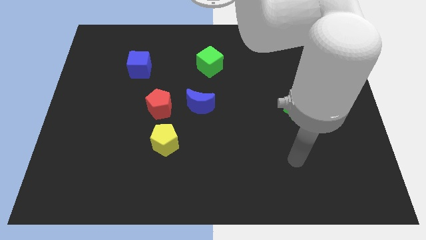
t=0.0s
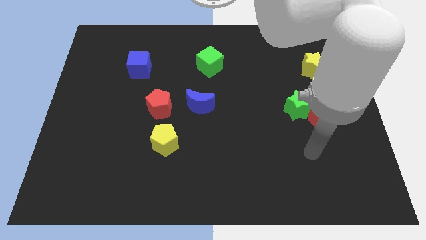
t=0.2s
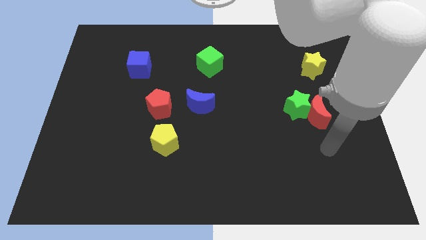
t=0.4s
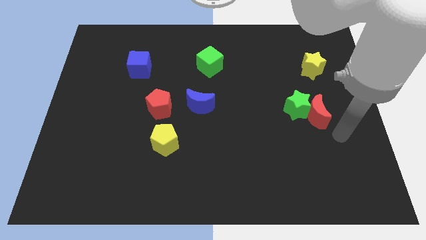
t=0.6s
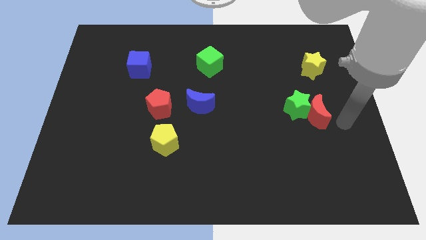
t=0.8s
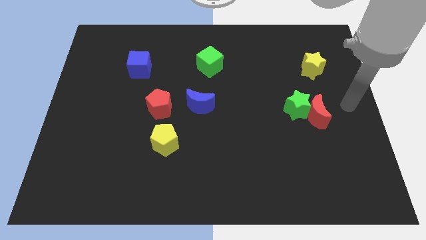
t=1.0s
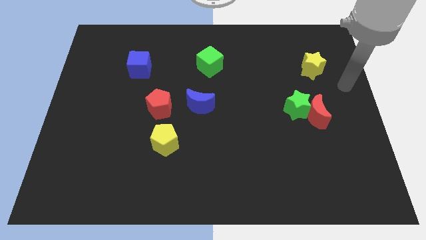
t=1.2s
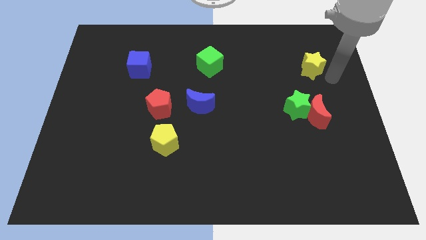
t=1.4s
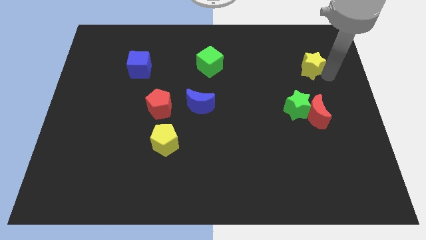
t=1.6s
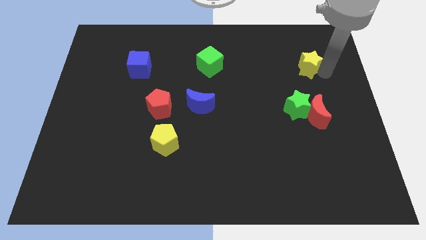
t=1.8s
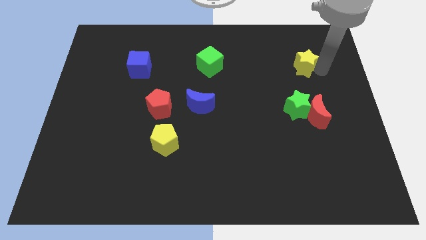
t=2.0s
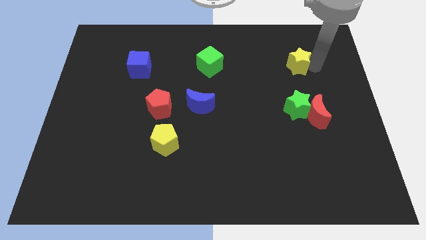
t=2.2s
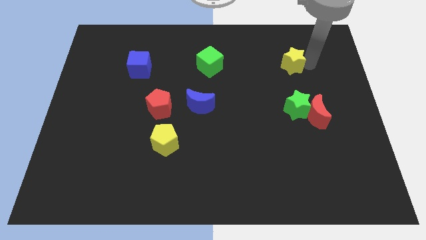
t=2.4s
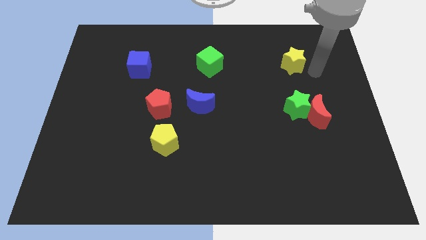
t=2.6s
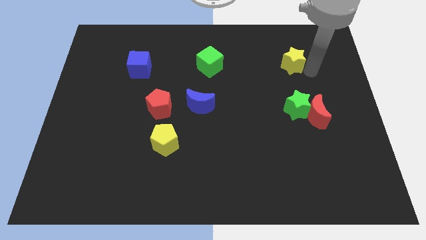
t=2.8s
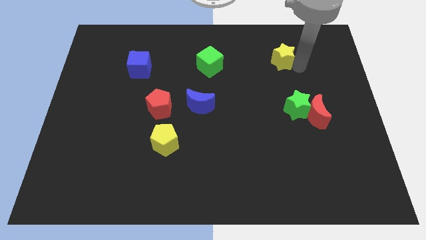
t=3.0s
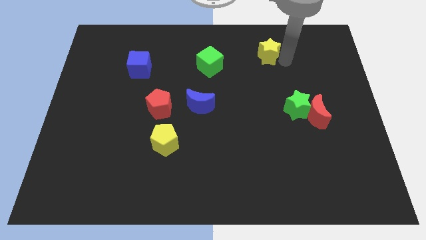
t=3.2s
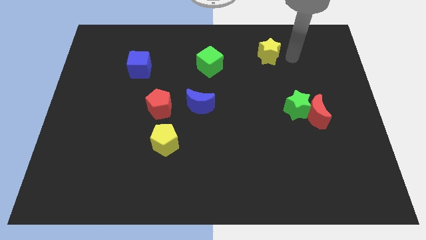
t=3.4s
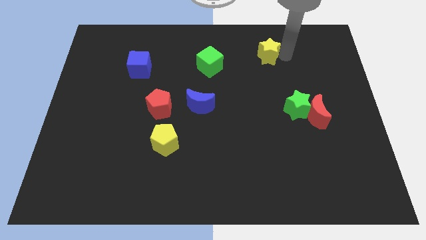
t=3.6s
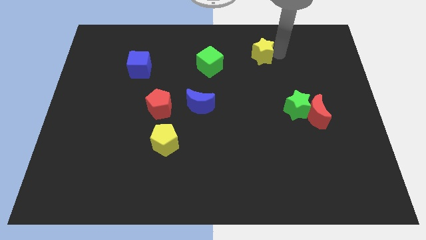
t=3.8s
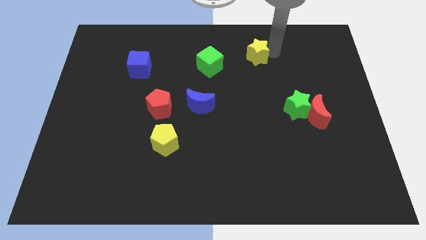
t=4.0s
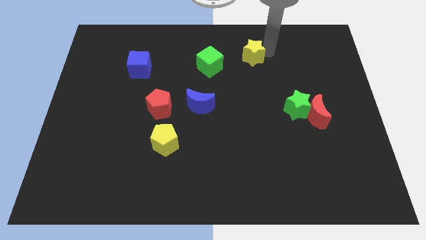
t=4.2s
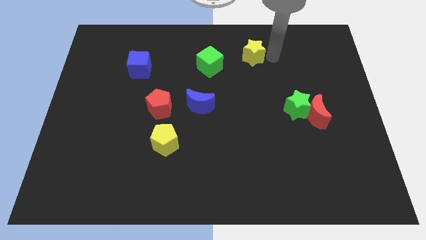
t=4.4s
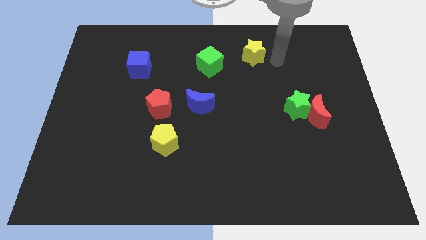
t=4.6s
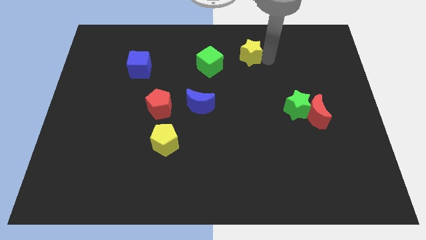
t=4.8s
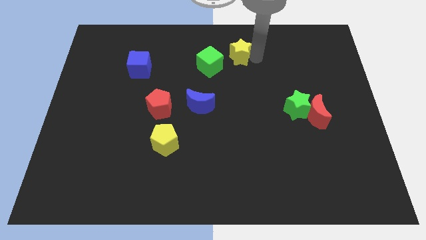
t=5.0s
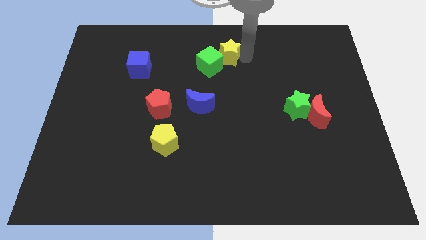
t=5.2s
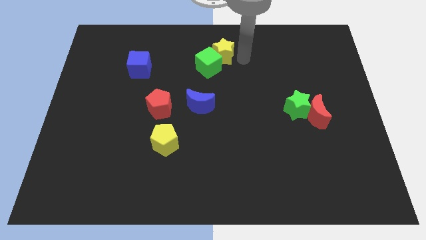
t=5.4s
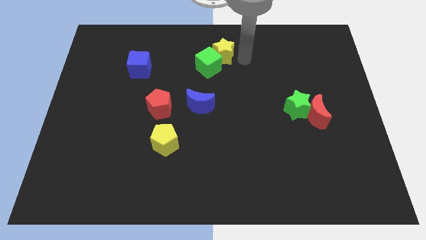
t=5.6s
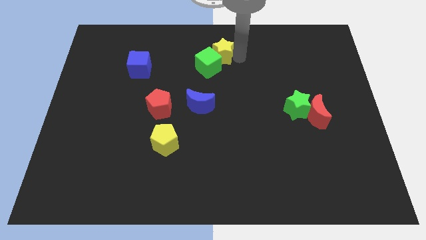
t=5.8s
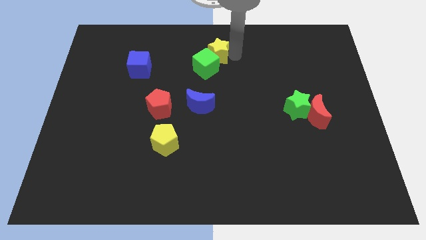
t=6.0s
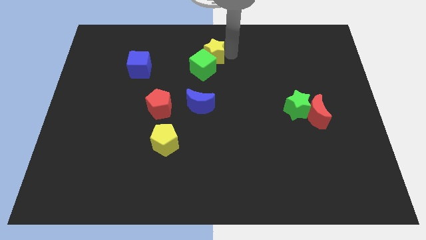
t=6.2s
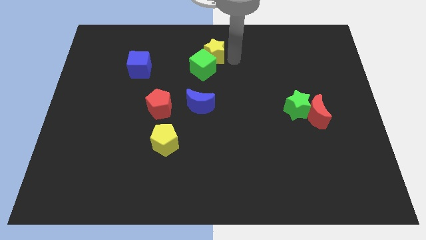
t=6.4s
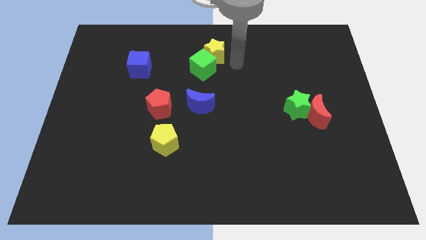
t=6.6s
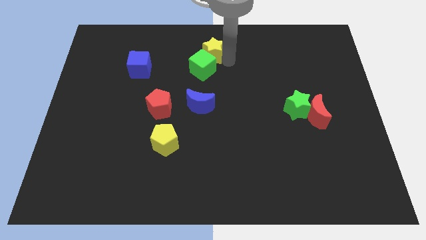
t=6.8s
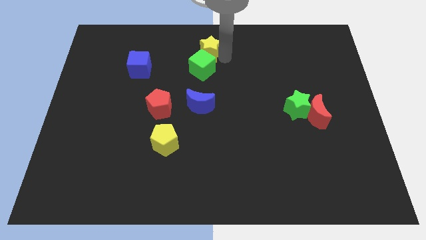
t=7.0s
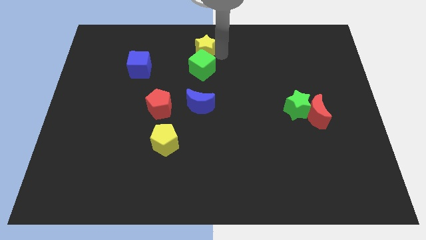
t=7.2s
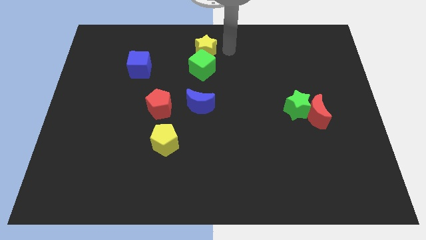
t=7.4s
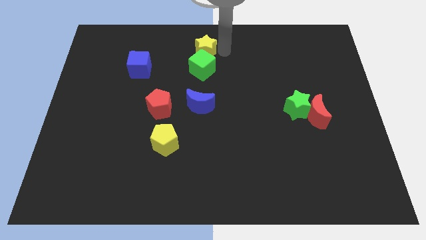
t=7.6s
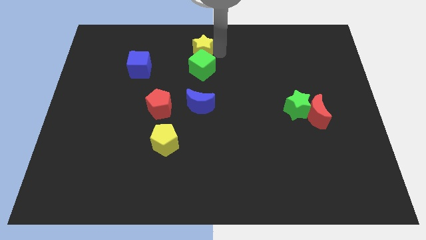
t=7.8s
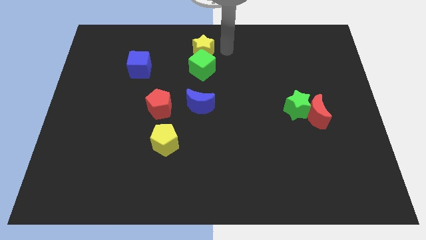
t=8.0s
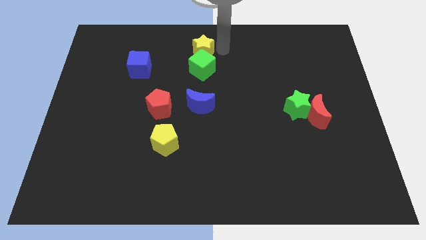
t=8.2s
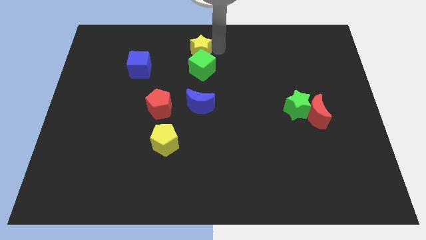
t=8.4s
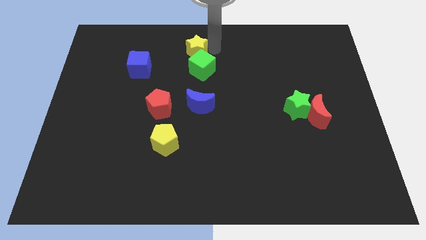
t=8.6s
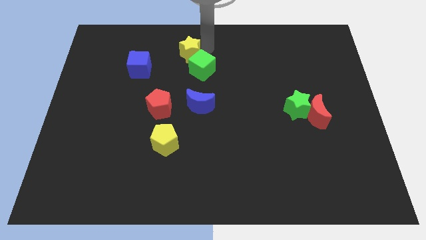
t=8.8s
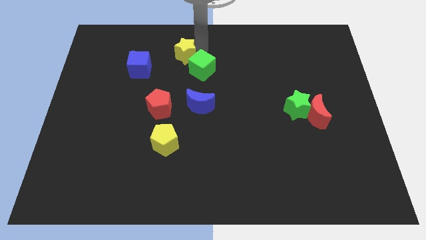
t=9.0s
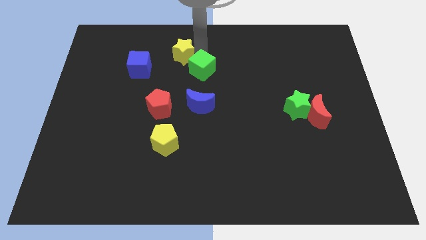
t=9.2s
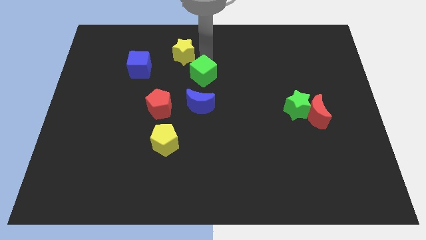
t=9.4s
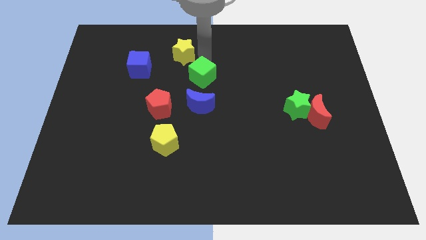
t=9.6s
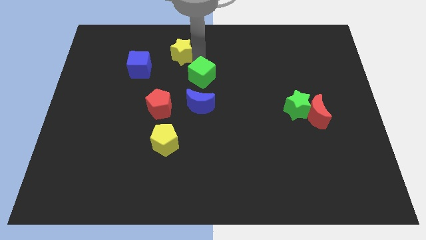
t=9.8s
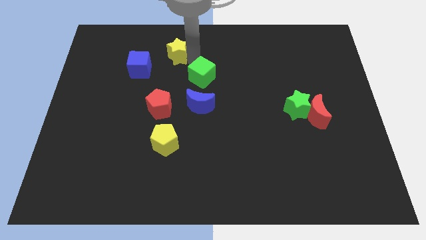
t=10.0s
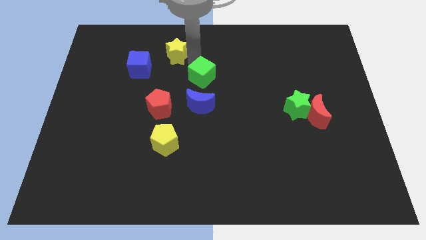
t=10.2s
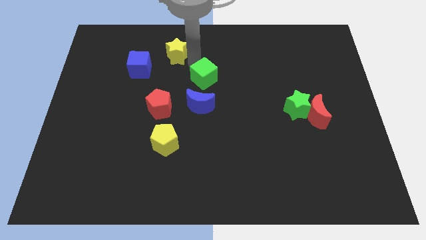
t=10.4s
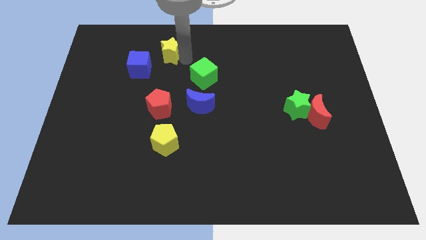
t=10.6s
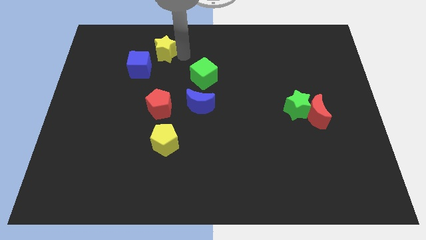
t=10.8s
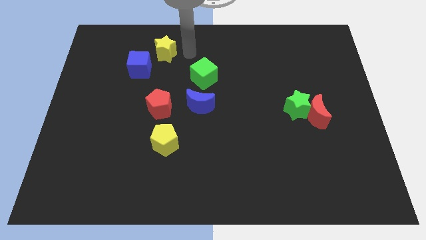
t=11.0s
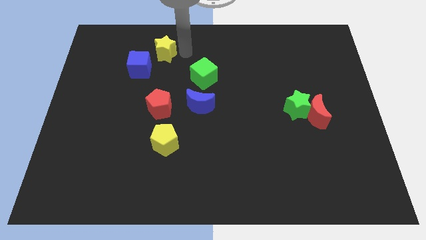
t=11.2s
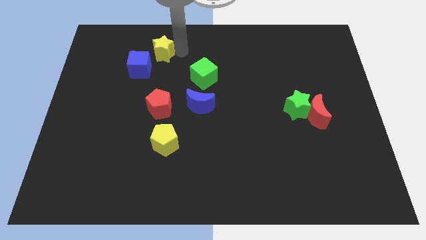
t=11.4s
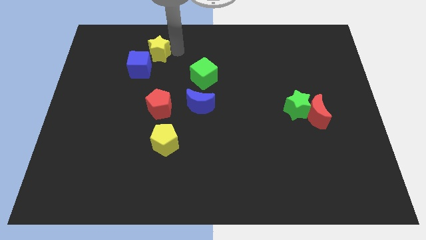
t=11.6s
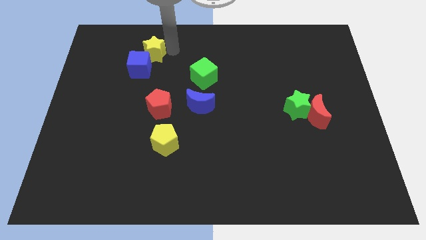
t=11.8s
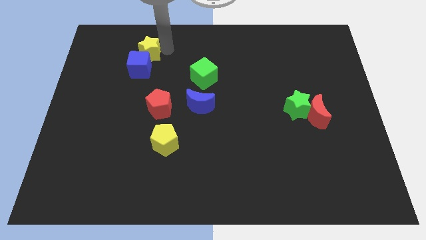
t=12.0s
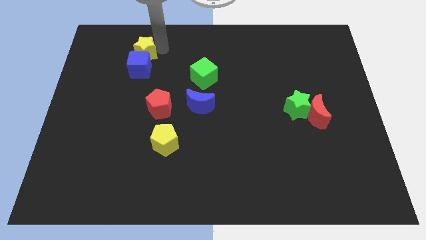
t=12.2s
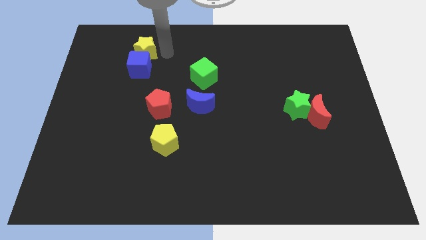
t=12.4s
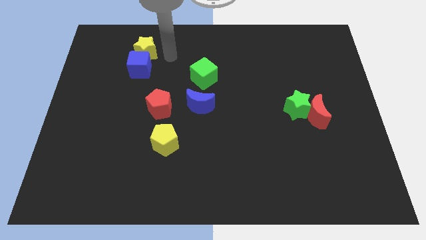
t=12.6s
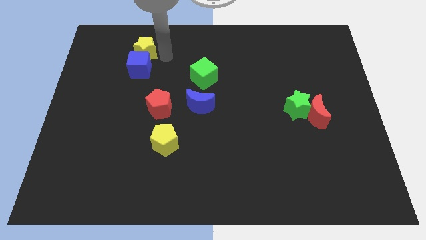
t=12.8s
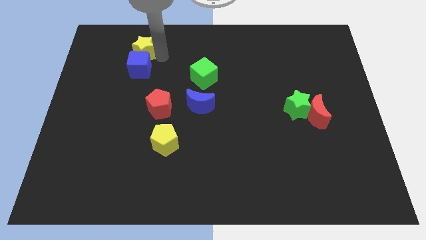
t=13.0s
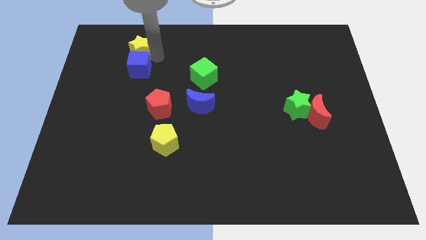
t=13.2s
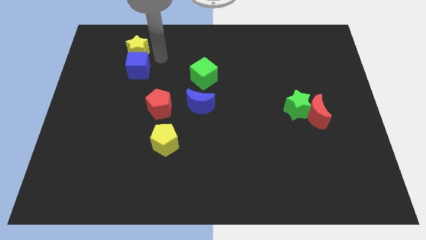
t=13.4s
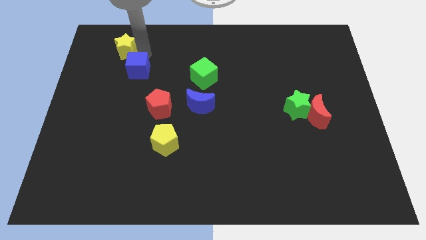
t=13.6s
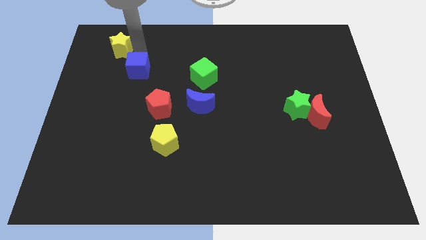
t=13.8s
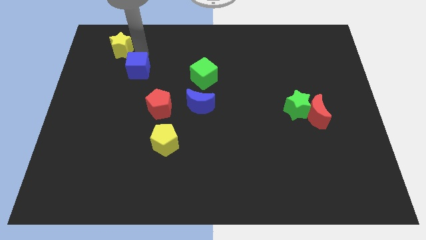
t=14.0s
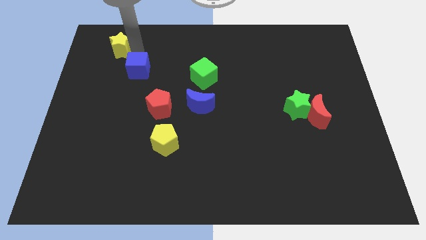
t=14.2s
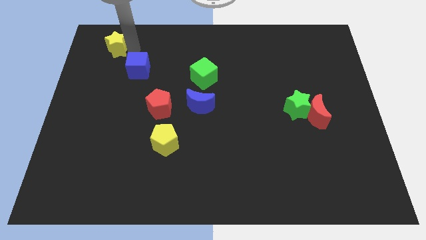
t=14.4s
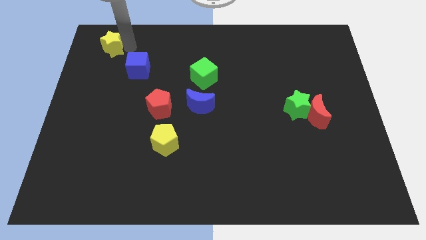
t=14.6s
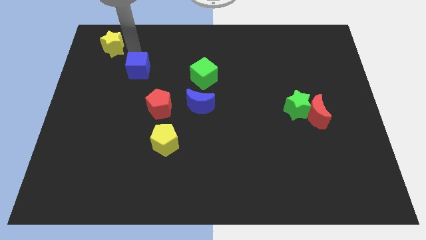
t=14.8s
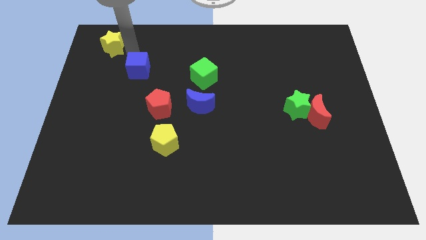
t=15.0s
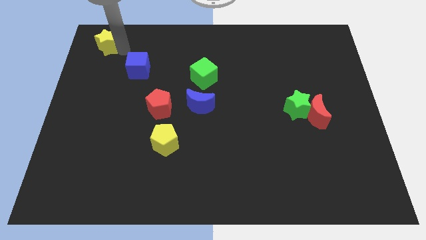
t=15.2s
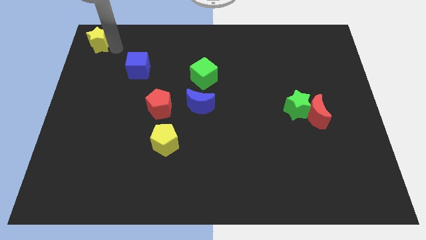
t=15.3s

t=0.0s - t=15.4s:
move the yellow star to the top left corner
